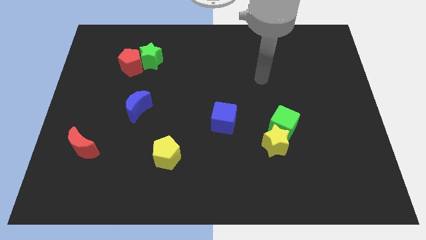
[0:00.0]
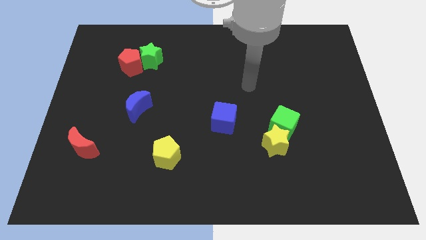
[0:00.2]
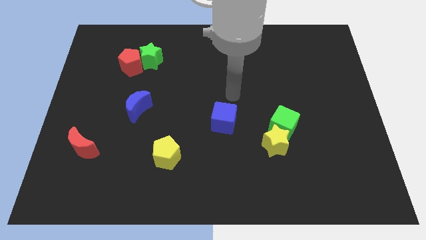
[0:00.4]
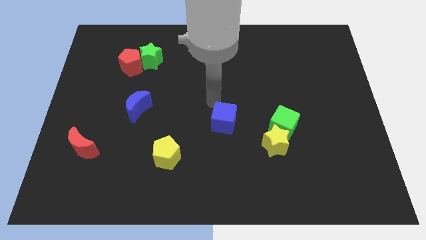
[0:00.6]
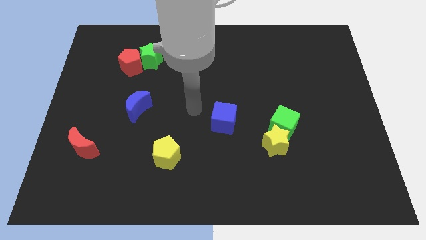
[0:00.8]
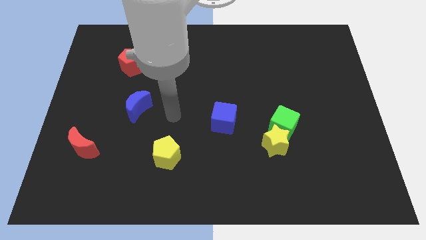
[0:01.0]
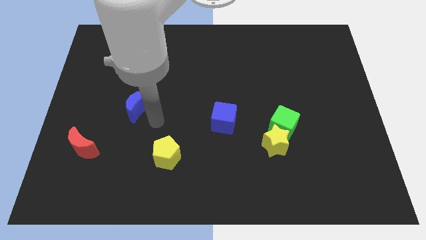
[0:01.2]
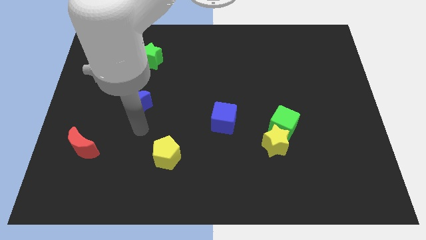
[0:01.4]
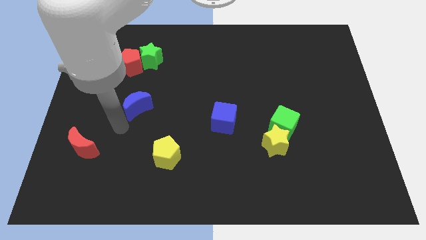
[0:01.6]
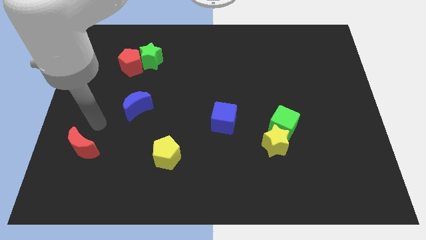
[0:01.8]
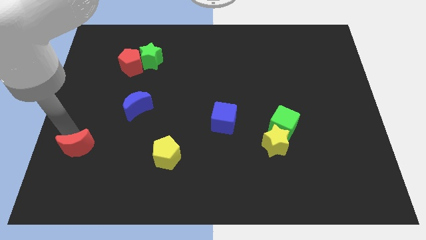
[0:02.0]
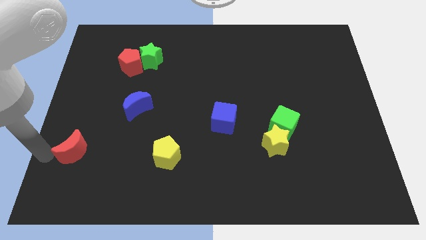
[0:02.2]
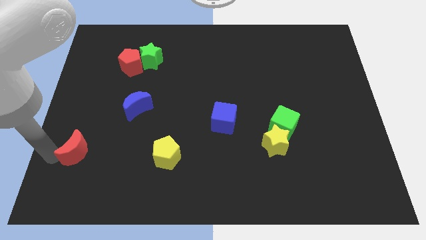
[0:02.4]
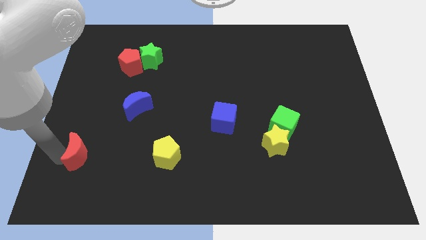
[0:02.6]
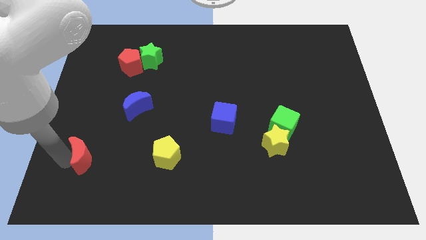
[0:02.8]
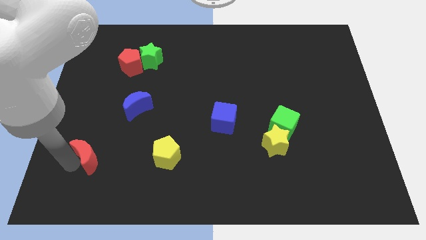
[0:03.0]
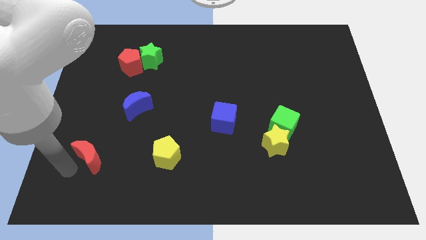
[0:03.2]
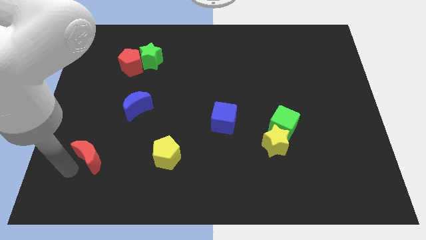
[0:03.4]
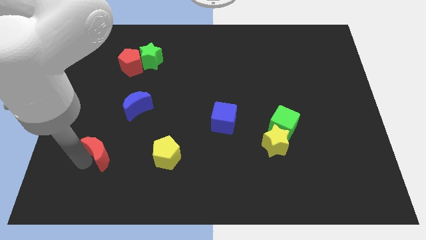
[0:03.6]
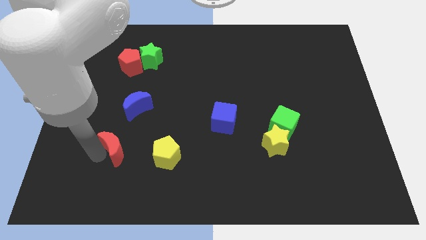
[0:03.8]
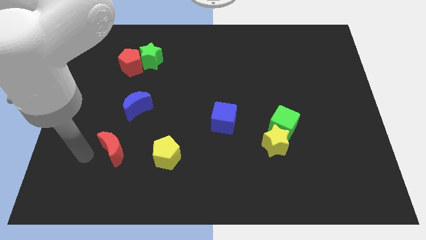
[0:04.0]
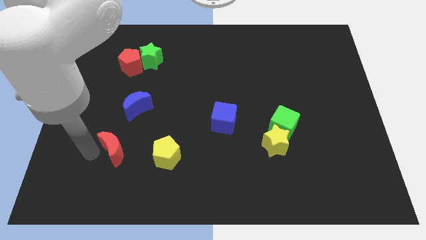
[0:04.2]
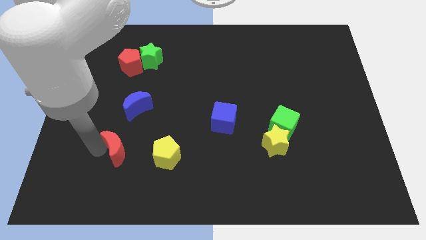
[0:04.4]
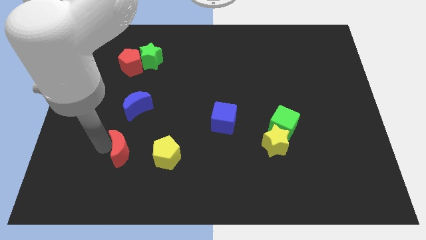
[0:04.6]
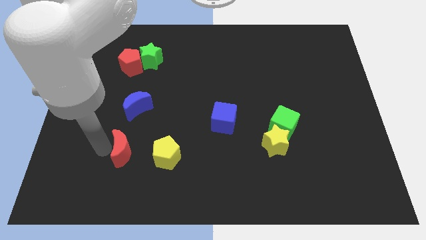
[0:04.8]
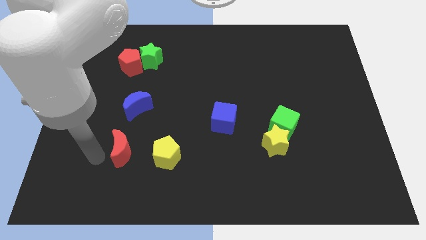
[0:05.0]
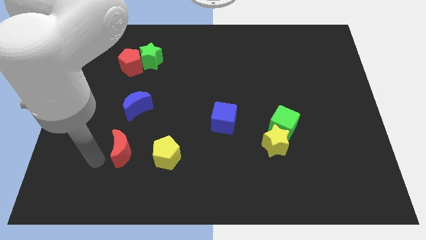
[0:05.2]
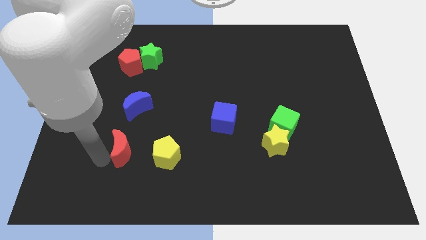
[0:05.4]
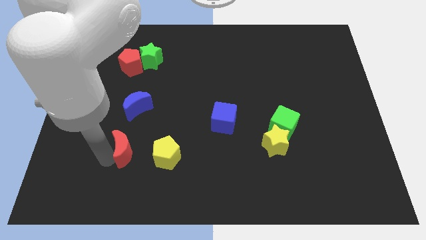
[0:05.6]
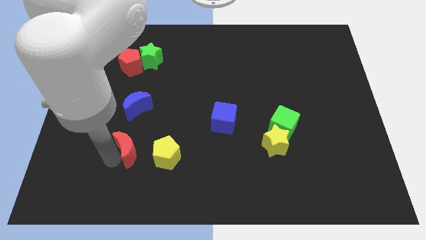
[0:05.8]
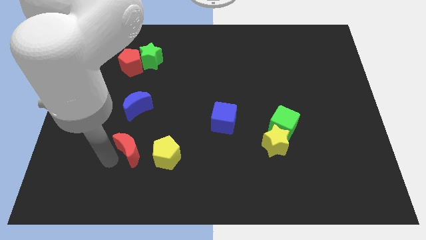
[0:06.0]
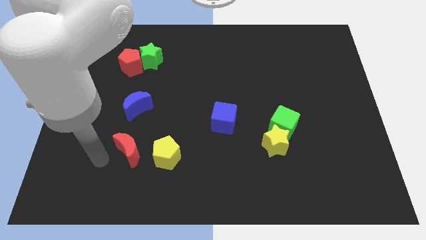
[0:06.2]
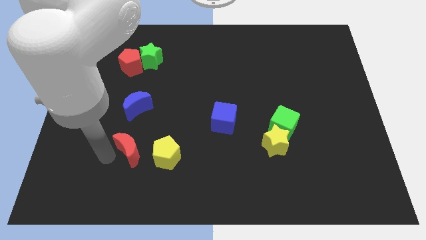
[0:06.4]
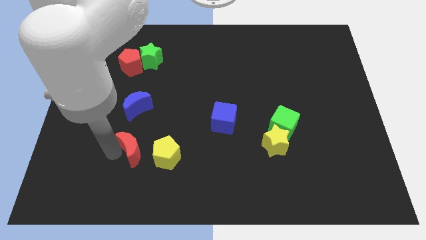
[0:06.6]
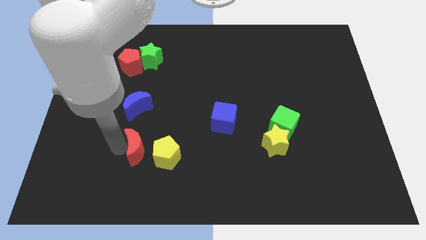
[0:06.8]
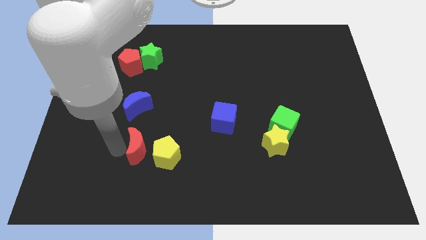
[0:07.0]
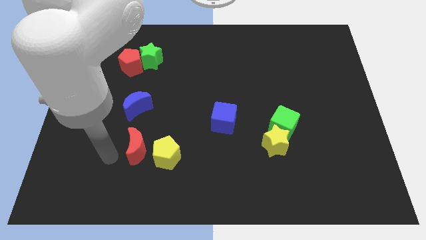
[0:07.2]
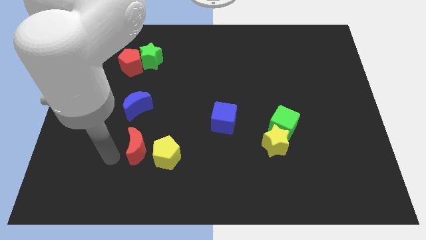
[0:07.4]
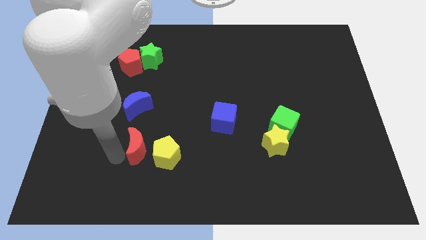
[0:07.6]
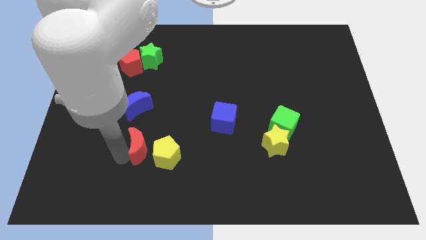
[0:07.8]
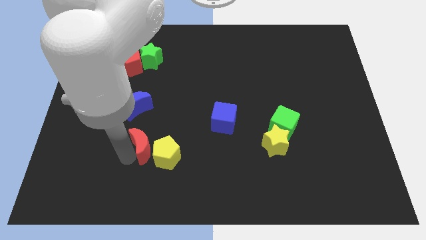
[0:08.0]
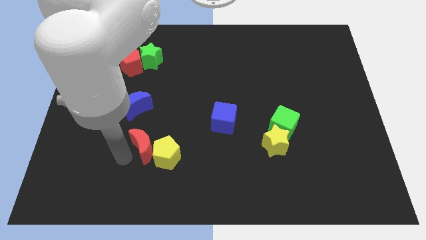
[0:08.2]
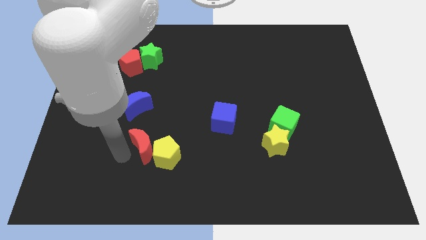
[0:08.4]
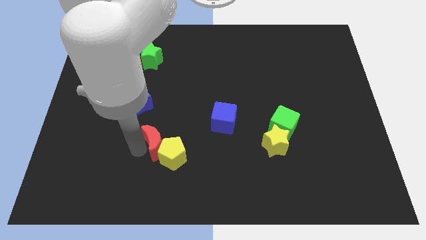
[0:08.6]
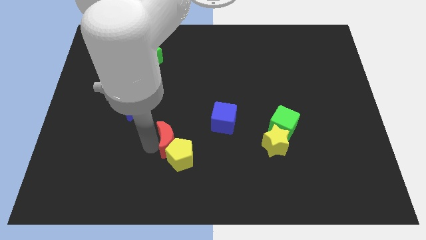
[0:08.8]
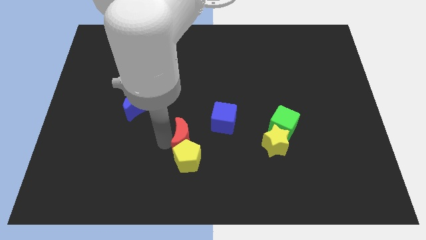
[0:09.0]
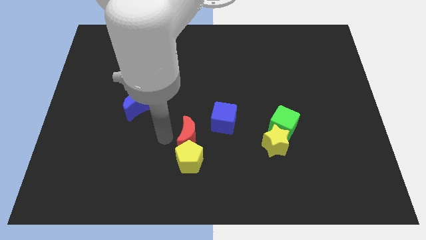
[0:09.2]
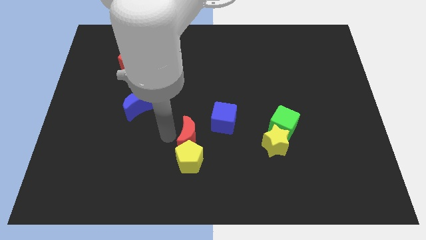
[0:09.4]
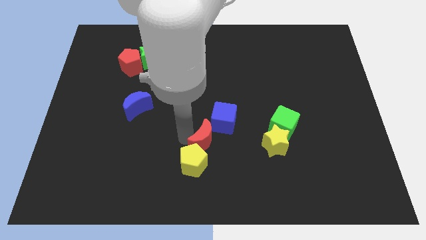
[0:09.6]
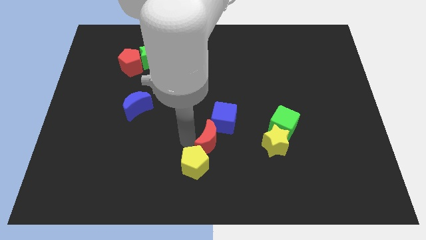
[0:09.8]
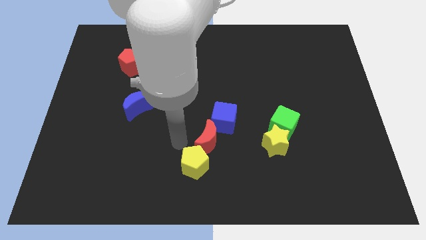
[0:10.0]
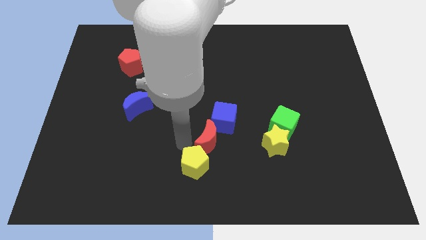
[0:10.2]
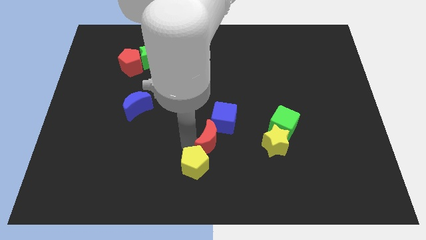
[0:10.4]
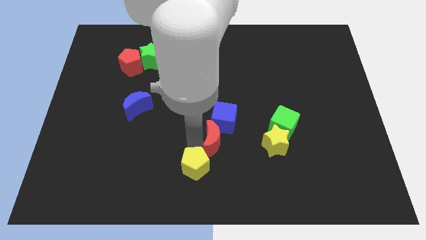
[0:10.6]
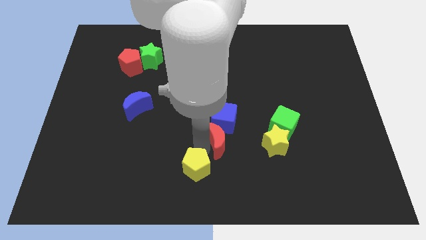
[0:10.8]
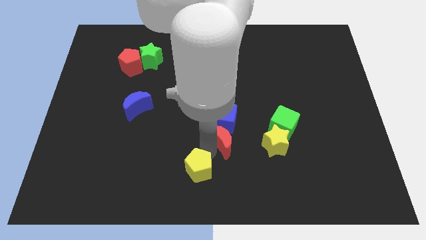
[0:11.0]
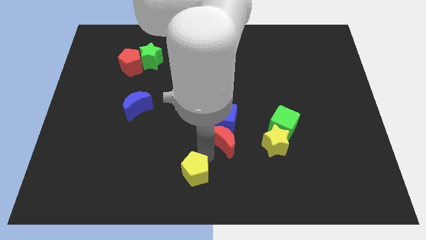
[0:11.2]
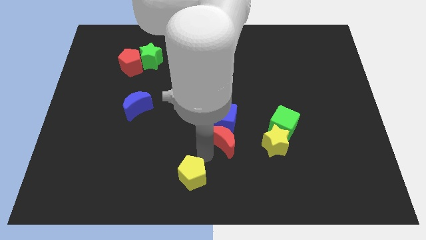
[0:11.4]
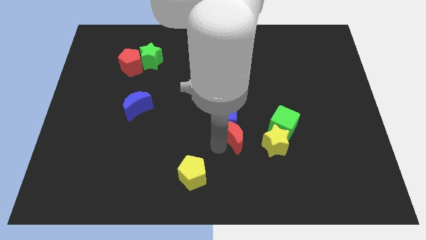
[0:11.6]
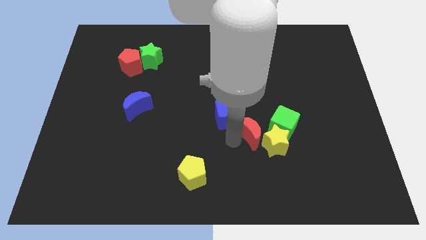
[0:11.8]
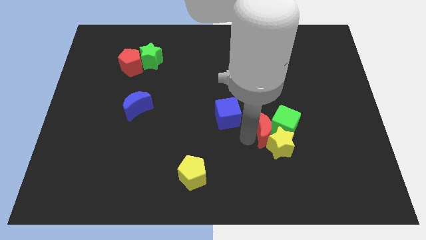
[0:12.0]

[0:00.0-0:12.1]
move the red moon towards the green cube
